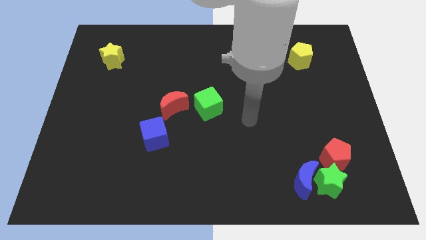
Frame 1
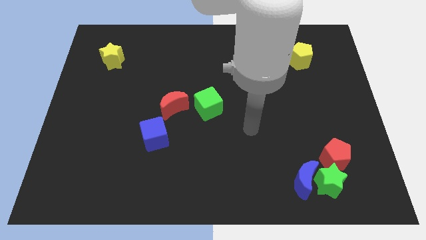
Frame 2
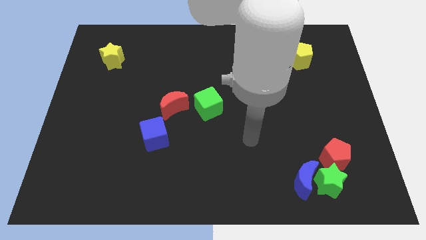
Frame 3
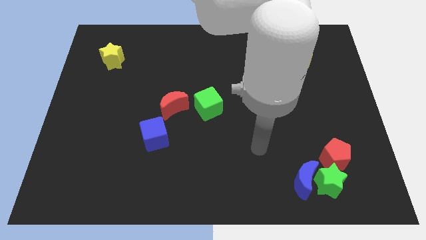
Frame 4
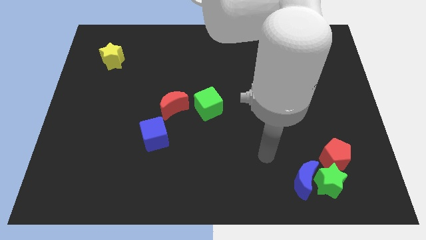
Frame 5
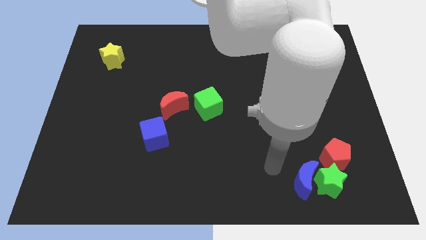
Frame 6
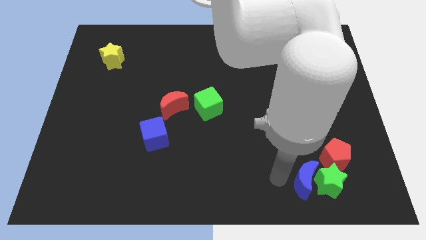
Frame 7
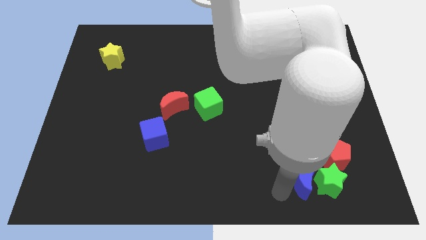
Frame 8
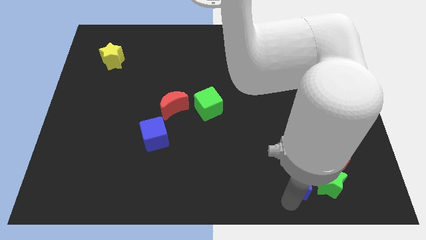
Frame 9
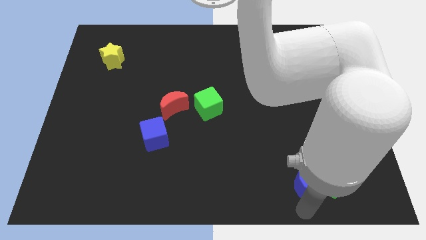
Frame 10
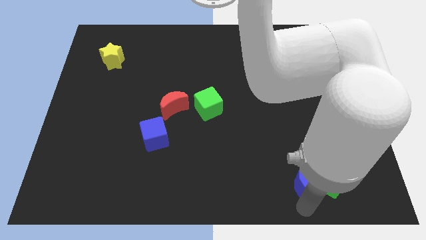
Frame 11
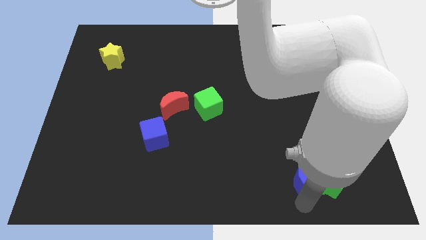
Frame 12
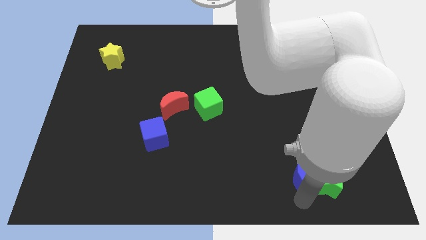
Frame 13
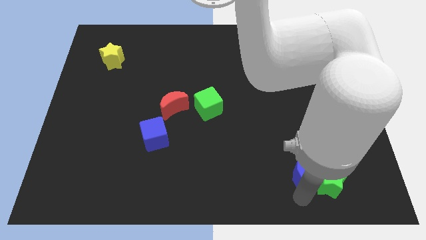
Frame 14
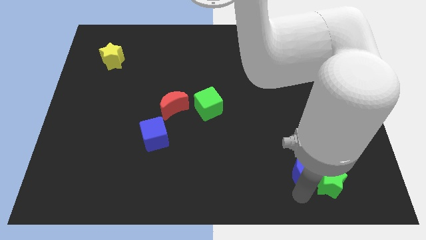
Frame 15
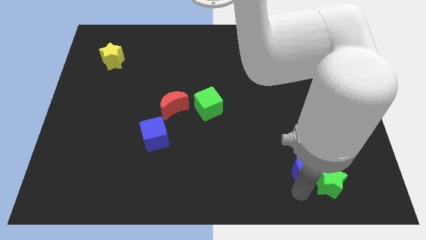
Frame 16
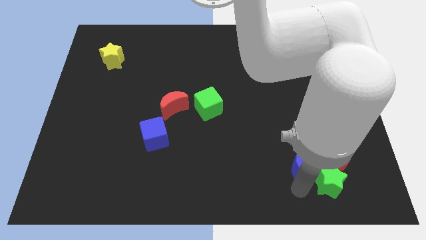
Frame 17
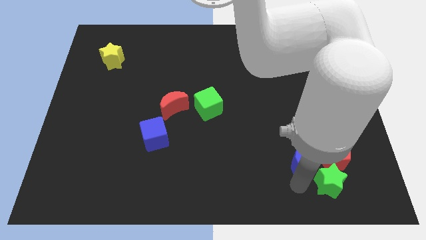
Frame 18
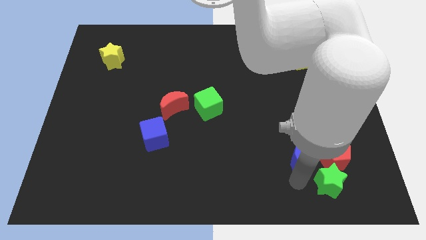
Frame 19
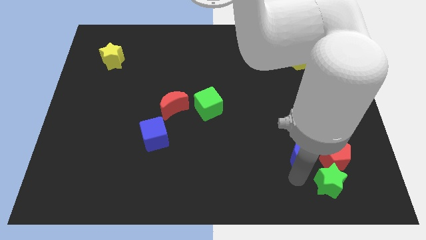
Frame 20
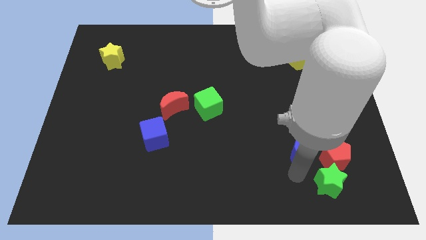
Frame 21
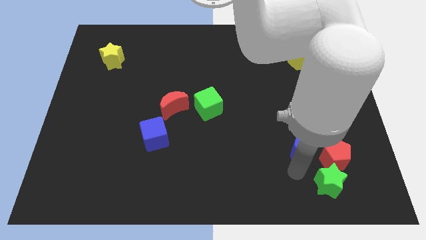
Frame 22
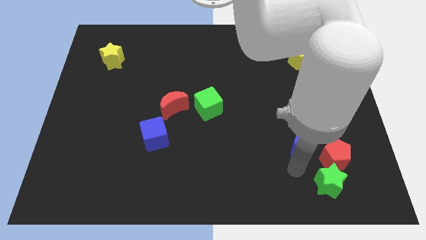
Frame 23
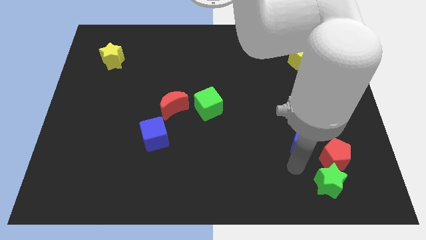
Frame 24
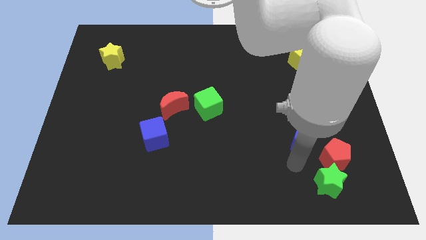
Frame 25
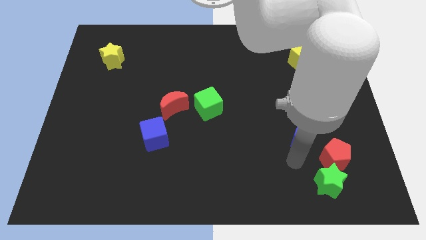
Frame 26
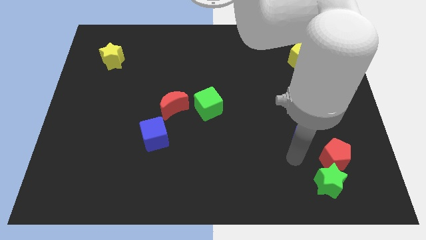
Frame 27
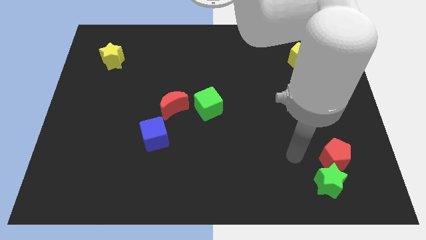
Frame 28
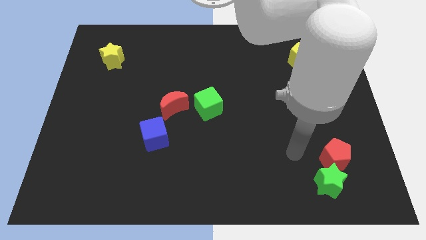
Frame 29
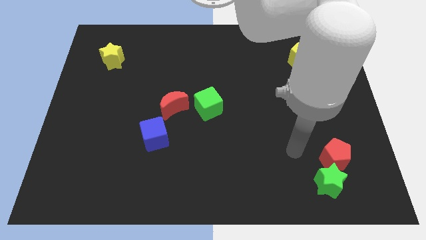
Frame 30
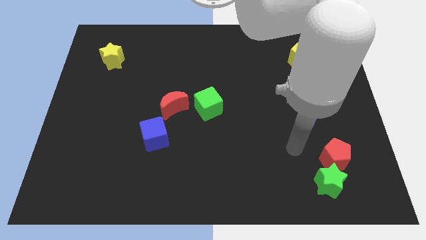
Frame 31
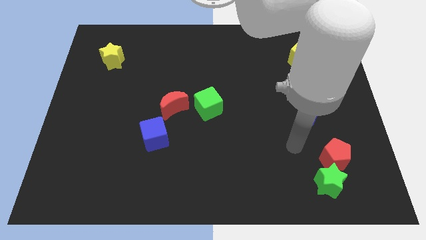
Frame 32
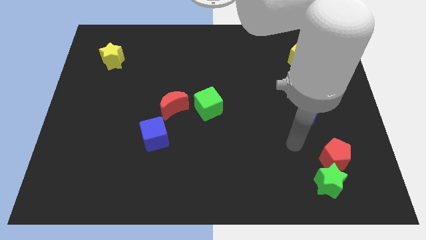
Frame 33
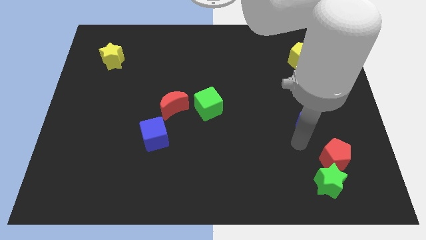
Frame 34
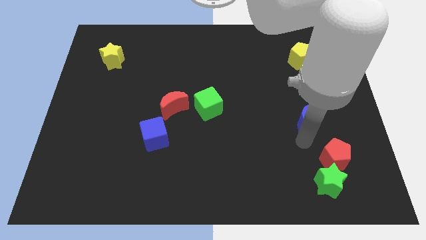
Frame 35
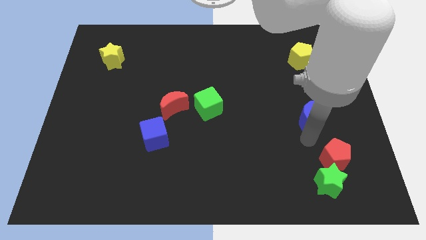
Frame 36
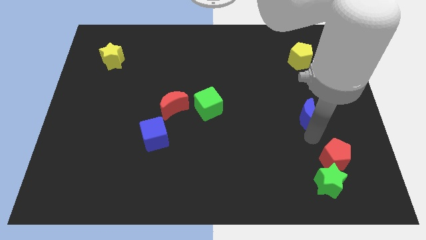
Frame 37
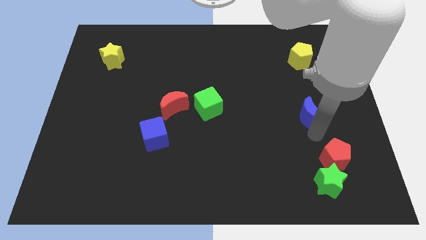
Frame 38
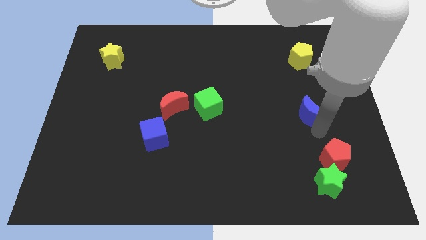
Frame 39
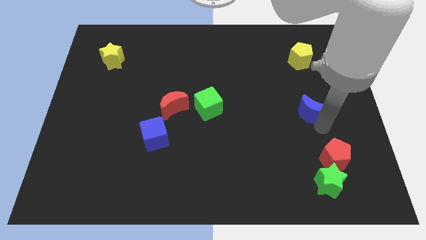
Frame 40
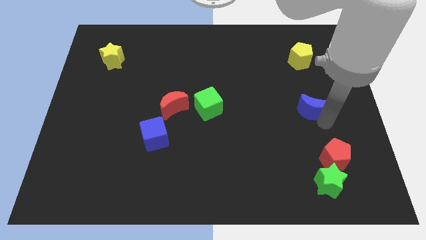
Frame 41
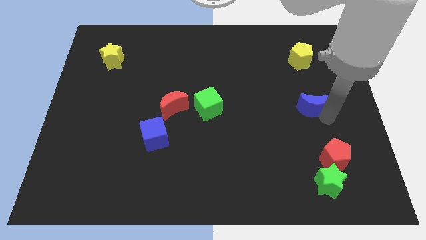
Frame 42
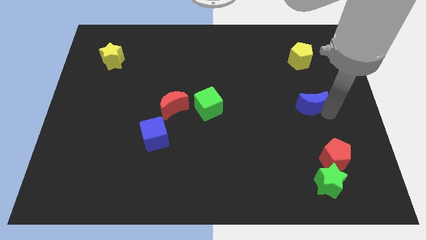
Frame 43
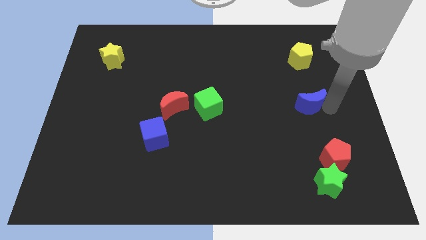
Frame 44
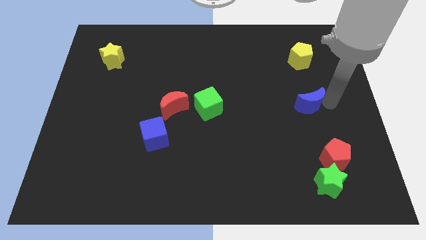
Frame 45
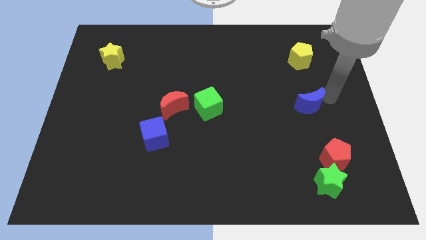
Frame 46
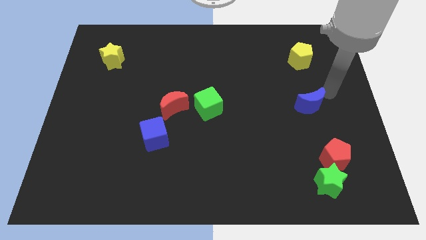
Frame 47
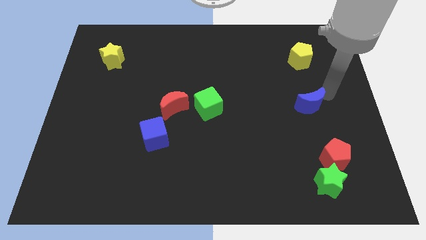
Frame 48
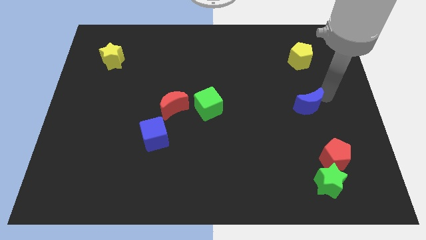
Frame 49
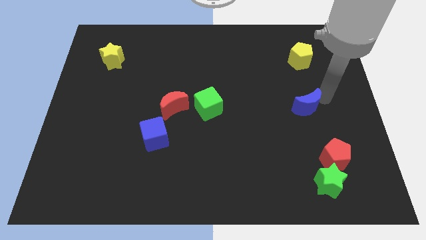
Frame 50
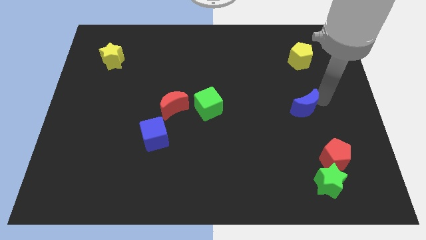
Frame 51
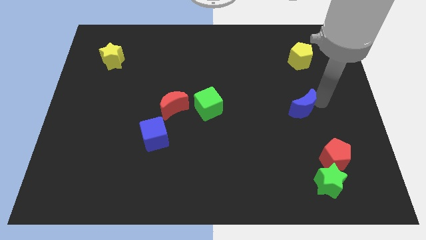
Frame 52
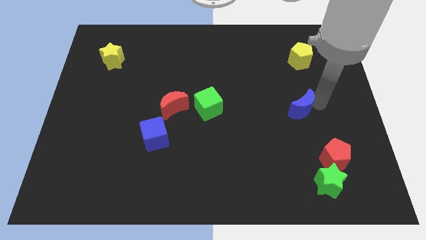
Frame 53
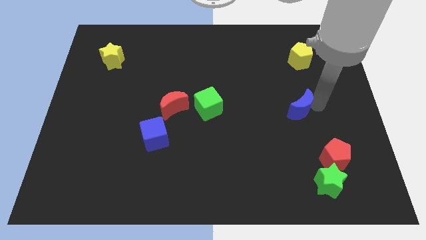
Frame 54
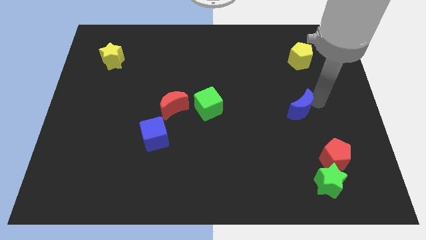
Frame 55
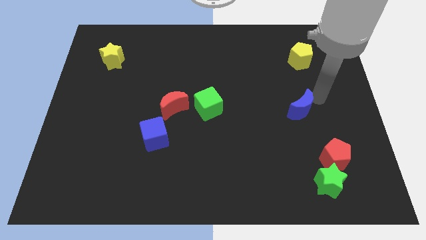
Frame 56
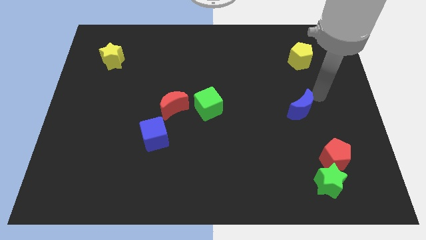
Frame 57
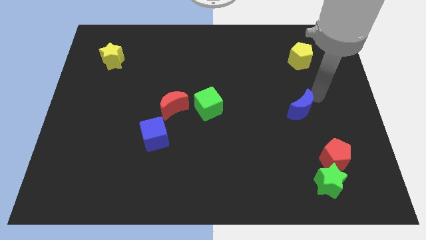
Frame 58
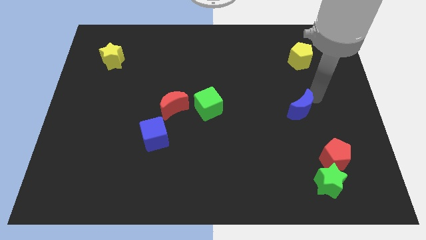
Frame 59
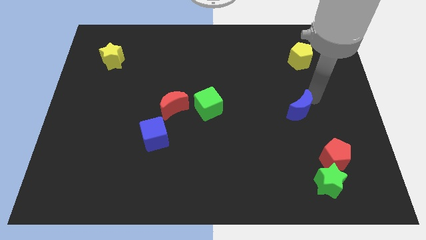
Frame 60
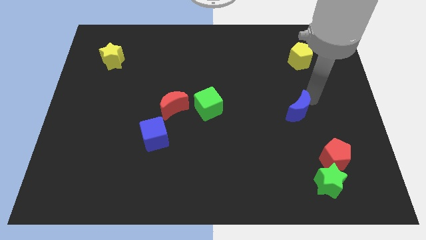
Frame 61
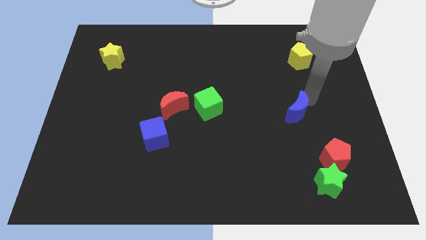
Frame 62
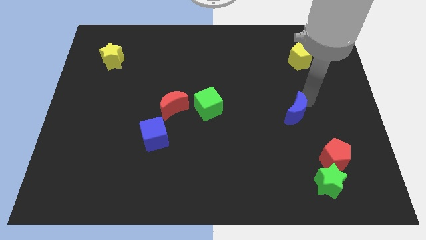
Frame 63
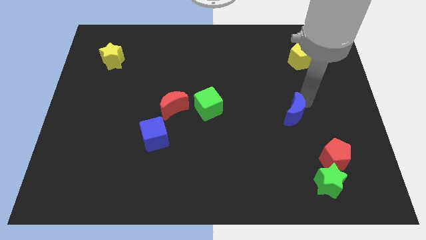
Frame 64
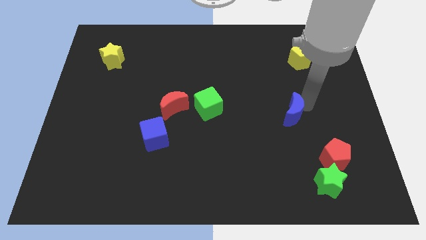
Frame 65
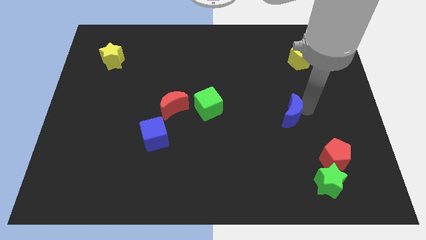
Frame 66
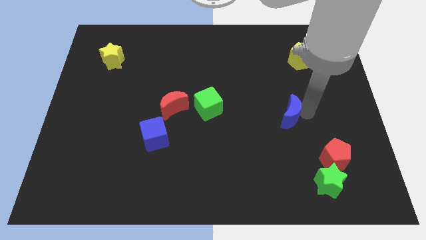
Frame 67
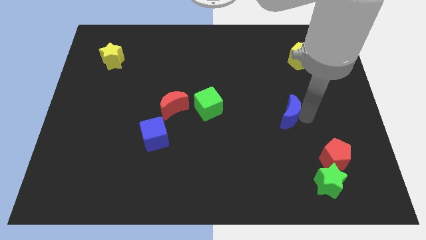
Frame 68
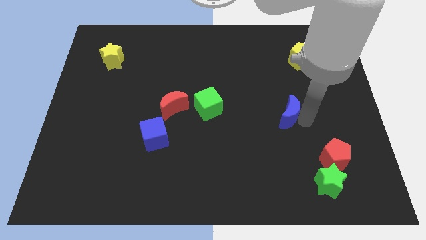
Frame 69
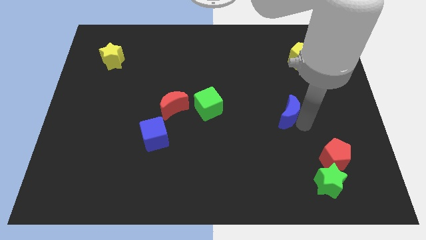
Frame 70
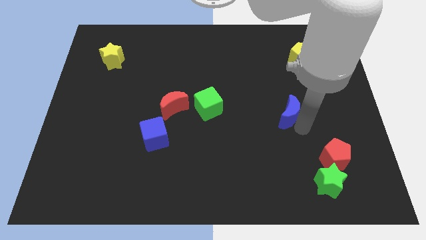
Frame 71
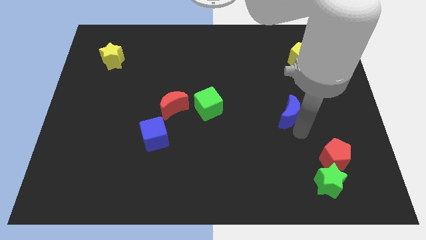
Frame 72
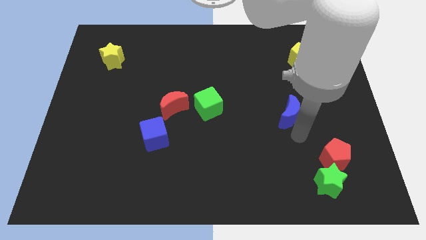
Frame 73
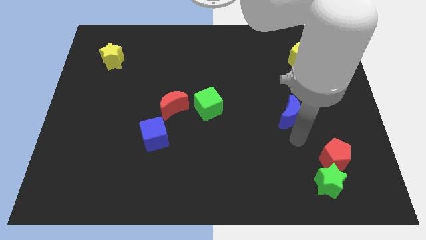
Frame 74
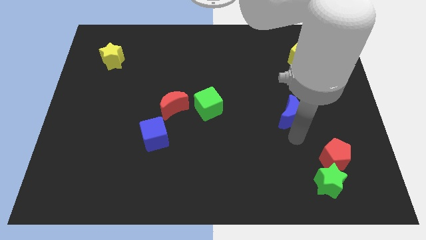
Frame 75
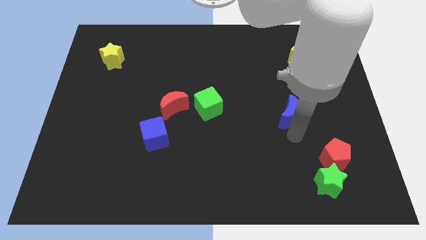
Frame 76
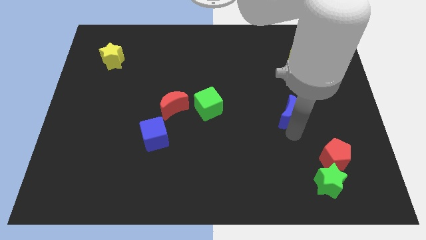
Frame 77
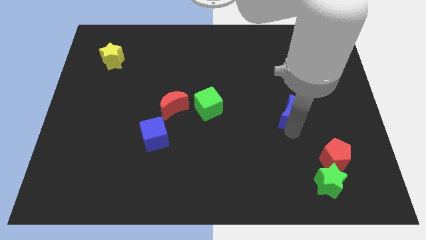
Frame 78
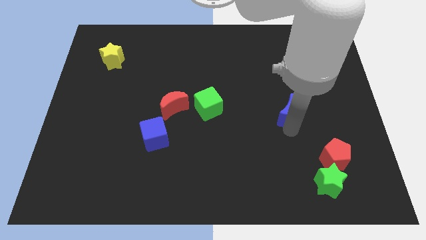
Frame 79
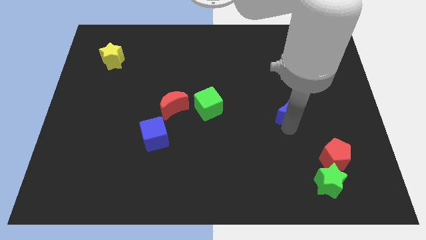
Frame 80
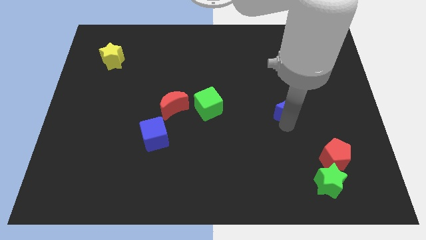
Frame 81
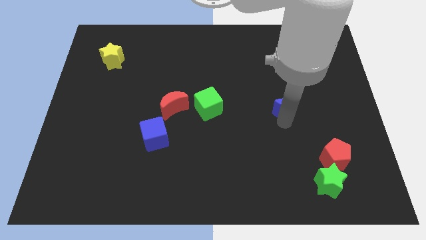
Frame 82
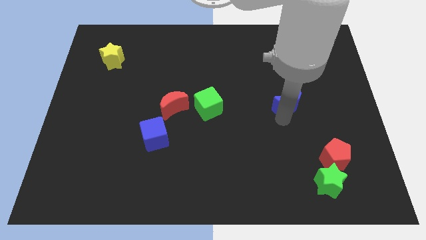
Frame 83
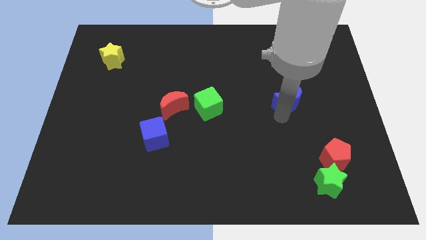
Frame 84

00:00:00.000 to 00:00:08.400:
move the blue moon upwards
